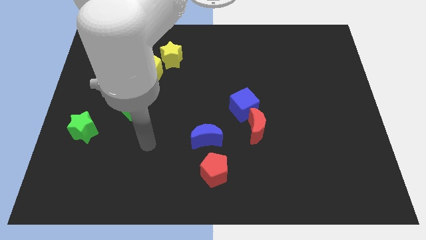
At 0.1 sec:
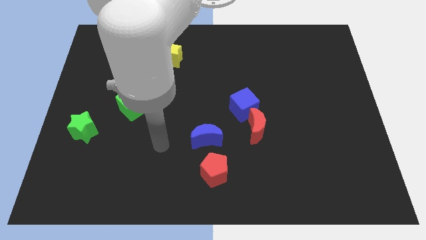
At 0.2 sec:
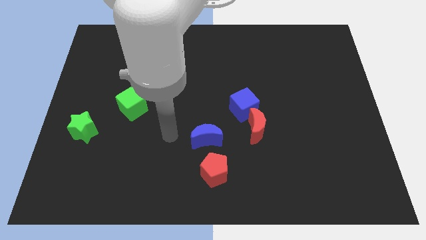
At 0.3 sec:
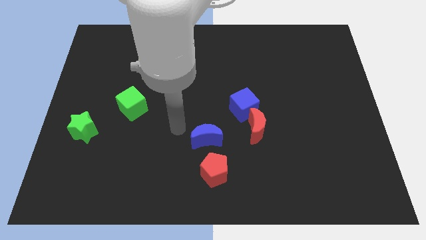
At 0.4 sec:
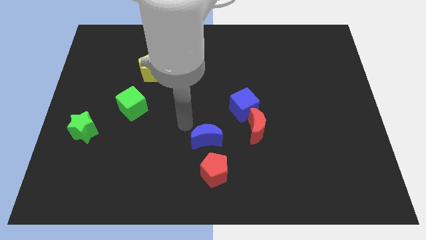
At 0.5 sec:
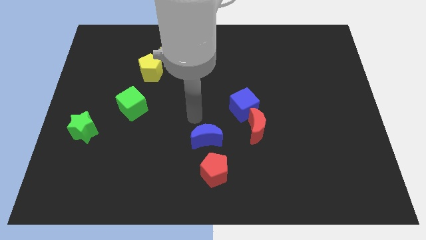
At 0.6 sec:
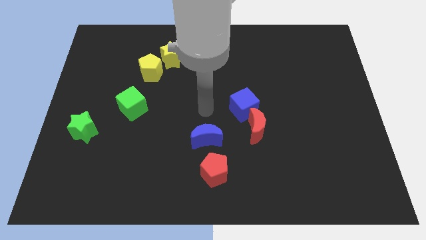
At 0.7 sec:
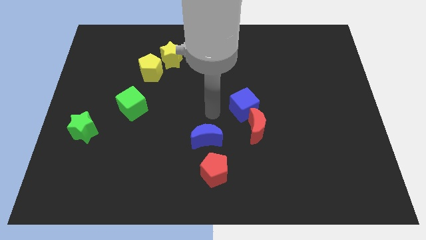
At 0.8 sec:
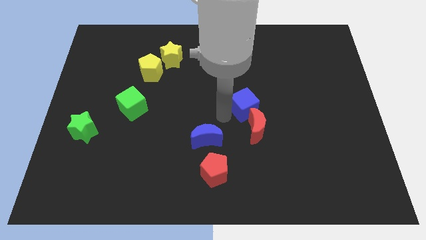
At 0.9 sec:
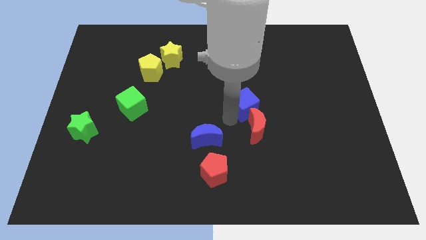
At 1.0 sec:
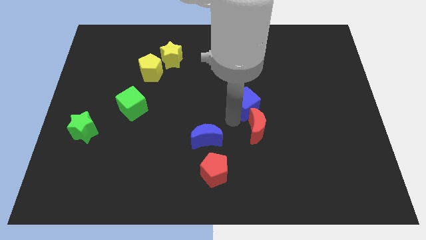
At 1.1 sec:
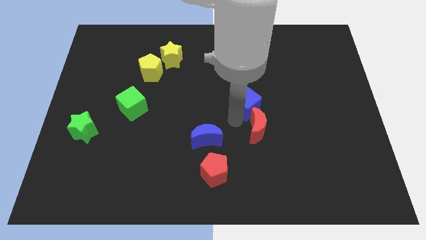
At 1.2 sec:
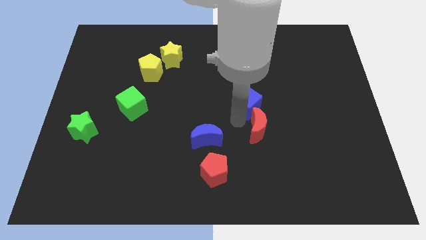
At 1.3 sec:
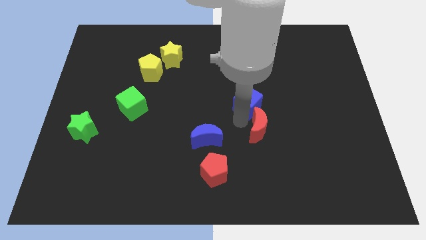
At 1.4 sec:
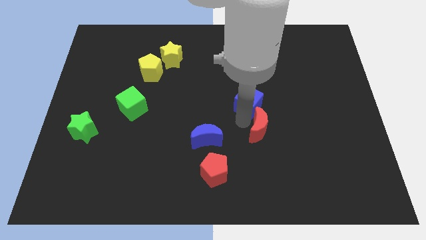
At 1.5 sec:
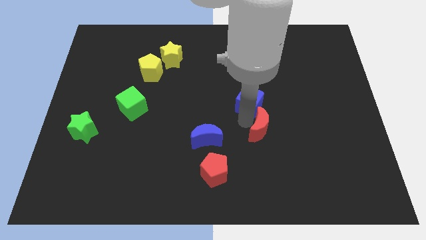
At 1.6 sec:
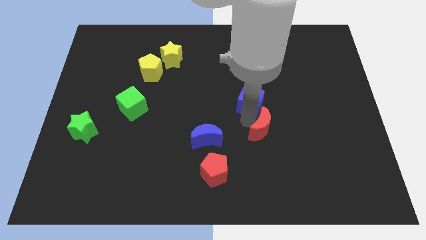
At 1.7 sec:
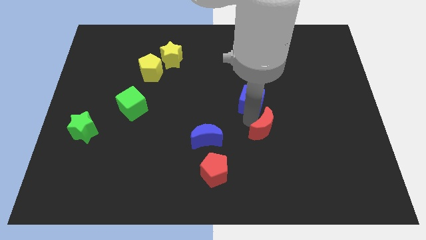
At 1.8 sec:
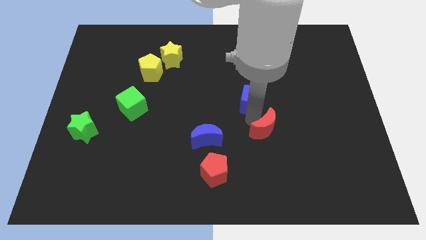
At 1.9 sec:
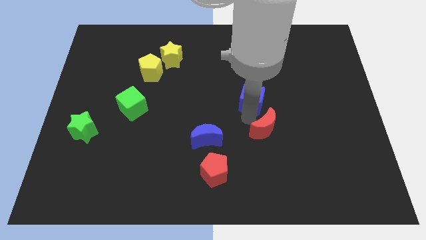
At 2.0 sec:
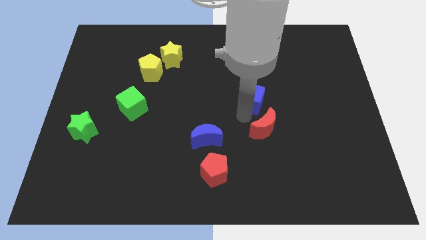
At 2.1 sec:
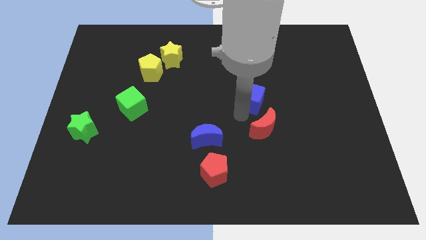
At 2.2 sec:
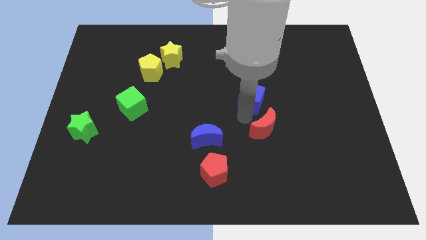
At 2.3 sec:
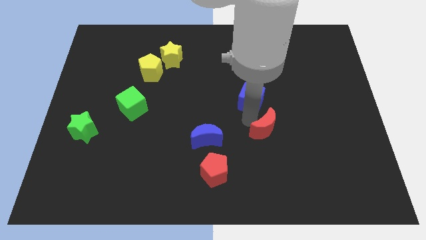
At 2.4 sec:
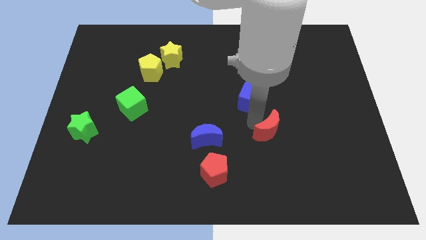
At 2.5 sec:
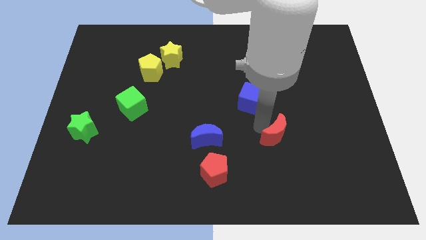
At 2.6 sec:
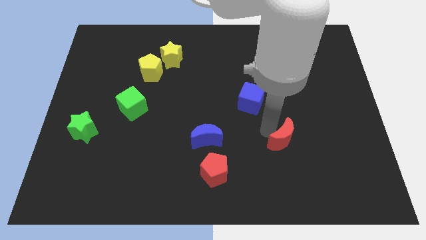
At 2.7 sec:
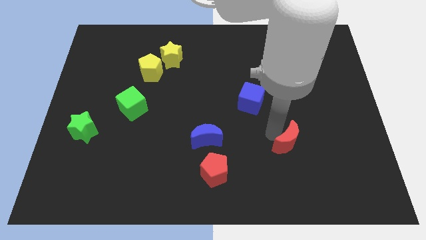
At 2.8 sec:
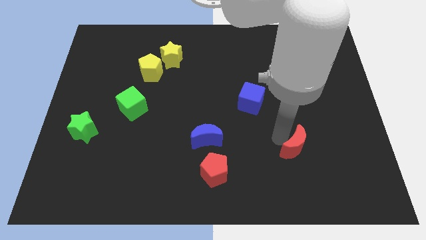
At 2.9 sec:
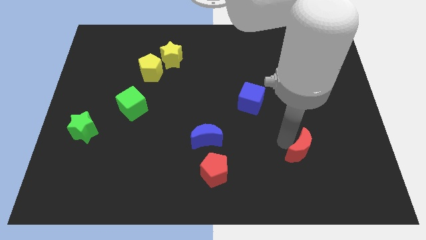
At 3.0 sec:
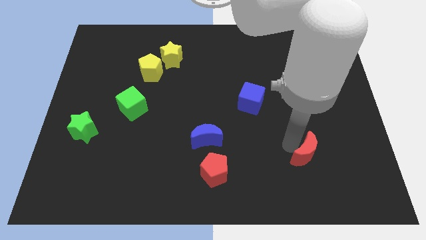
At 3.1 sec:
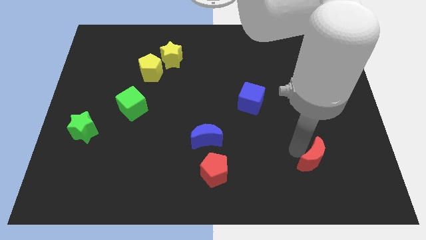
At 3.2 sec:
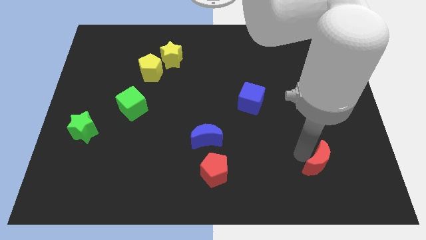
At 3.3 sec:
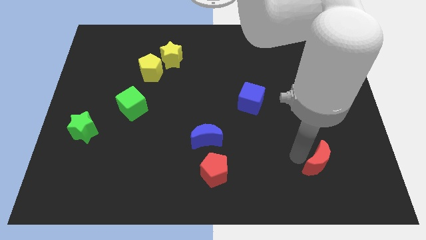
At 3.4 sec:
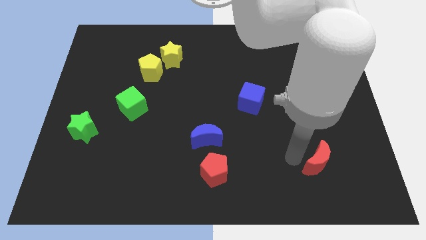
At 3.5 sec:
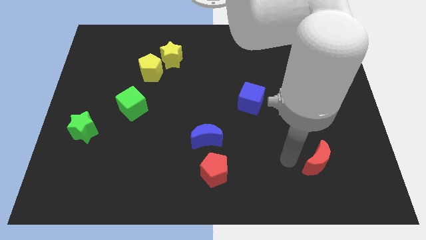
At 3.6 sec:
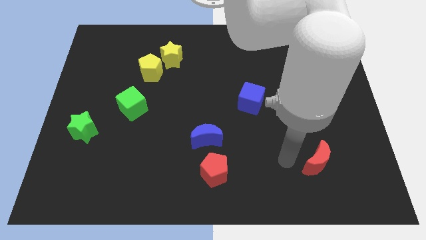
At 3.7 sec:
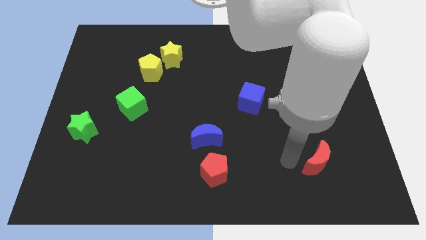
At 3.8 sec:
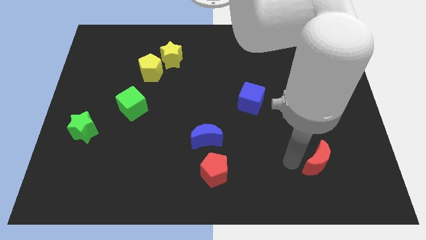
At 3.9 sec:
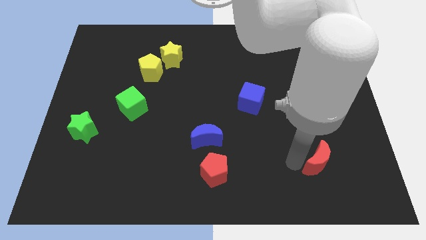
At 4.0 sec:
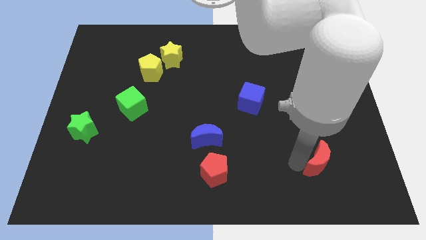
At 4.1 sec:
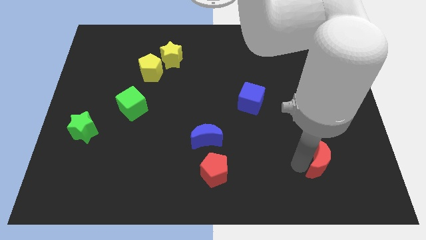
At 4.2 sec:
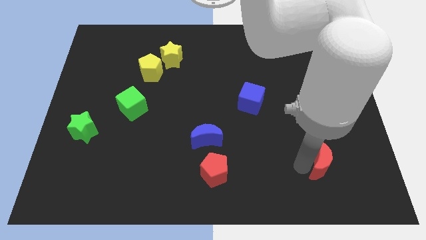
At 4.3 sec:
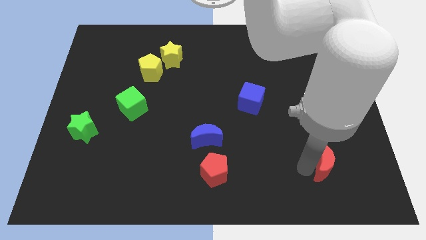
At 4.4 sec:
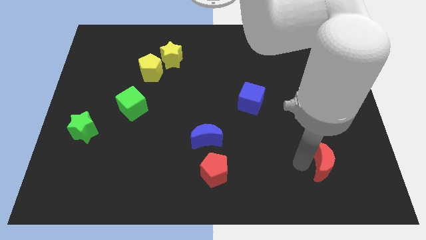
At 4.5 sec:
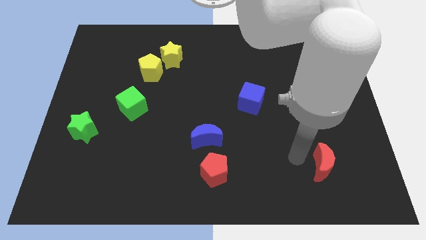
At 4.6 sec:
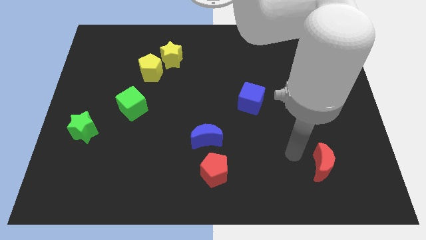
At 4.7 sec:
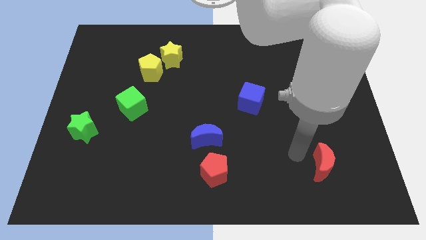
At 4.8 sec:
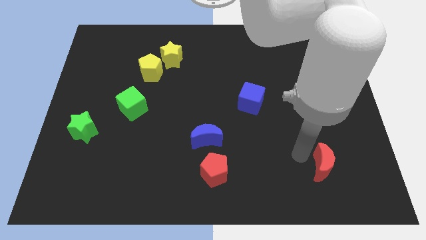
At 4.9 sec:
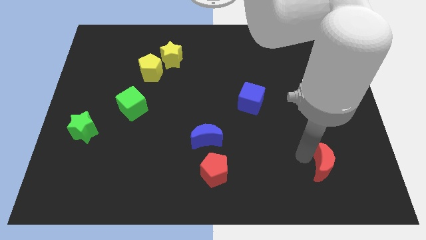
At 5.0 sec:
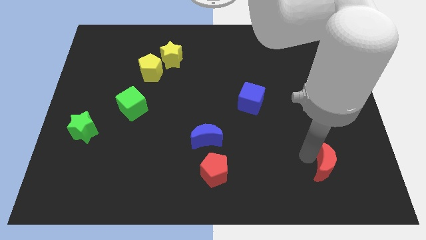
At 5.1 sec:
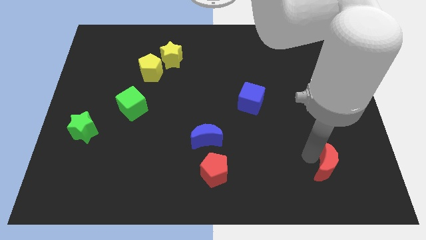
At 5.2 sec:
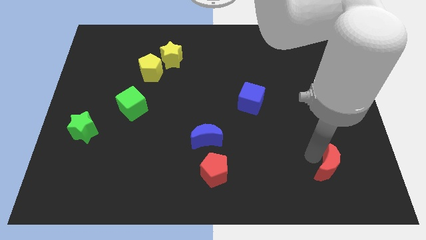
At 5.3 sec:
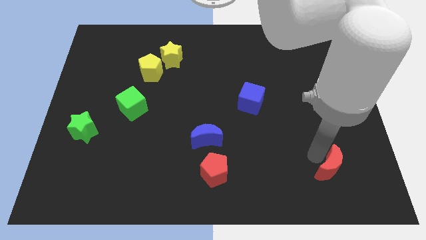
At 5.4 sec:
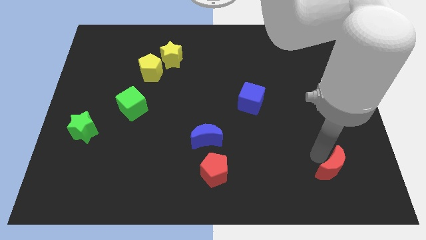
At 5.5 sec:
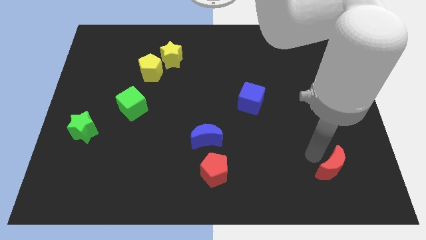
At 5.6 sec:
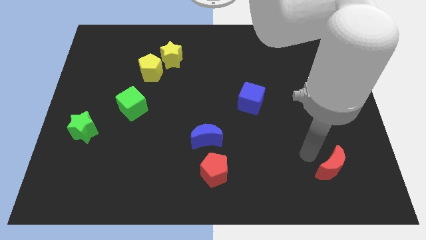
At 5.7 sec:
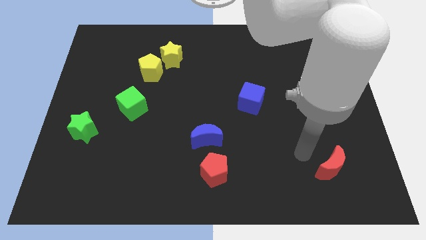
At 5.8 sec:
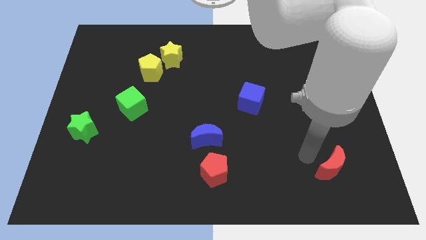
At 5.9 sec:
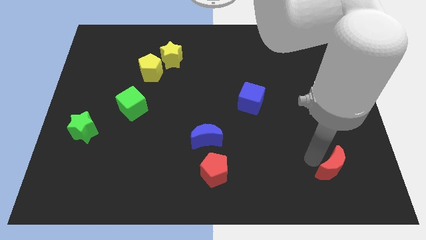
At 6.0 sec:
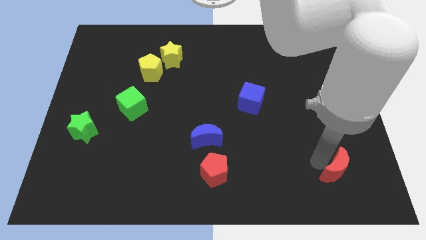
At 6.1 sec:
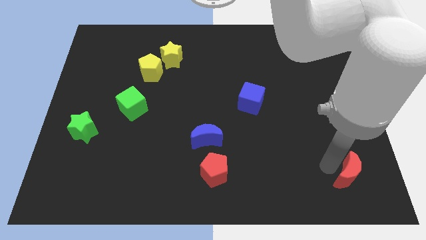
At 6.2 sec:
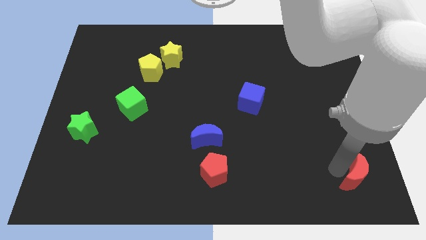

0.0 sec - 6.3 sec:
push the red moon to the bottom right

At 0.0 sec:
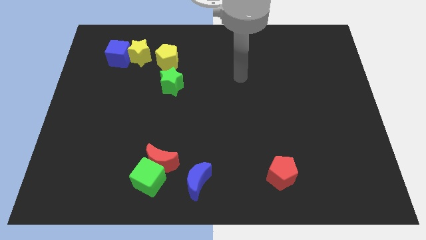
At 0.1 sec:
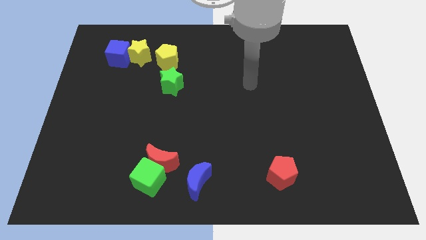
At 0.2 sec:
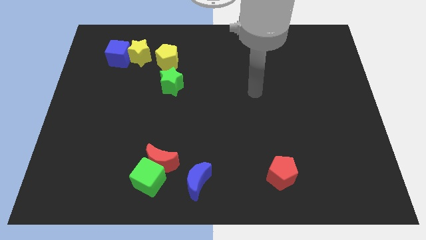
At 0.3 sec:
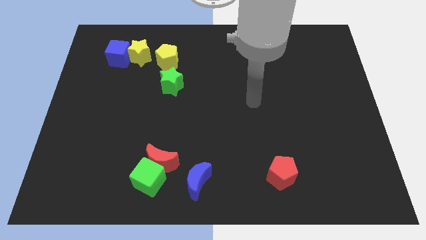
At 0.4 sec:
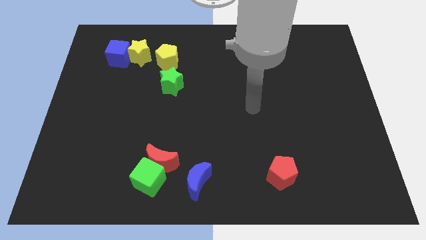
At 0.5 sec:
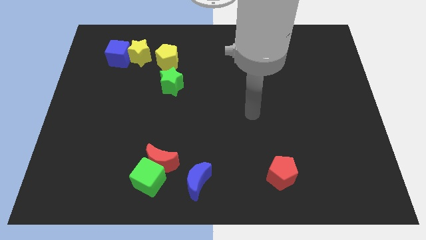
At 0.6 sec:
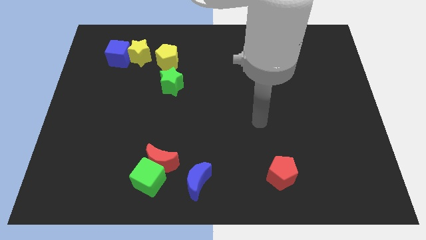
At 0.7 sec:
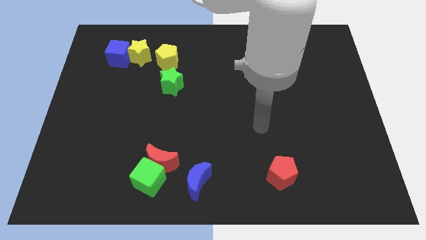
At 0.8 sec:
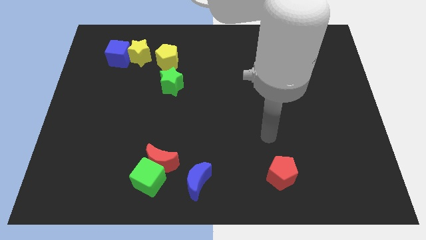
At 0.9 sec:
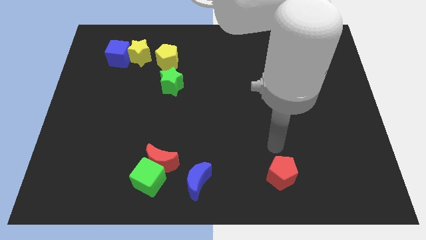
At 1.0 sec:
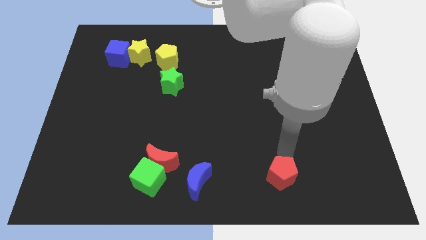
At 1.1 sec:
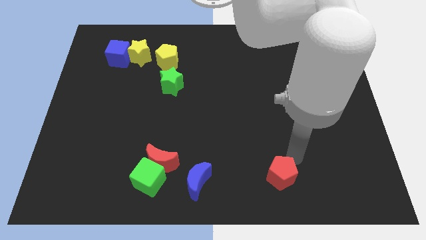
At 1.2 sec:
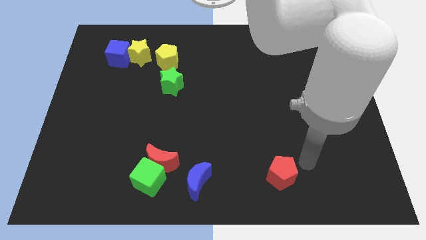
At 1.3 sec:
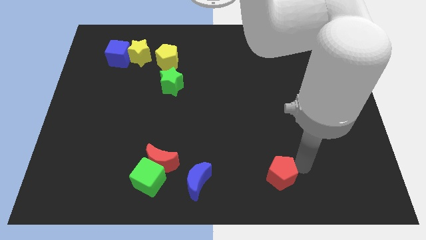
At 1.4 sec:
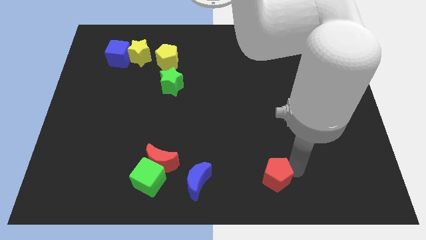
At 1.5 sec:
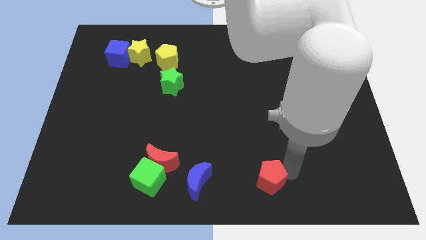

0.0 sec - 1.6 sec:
push the red pentagon to the bottom
